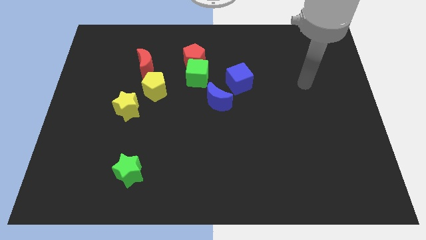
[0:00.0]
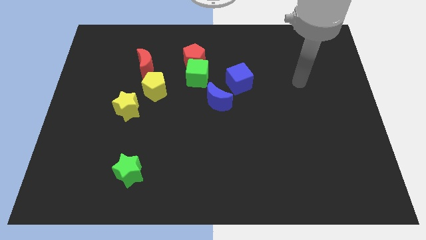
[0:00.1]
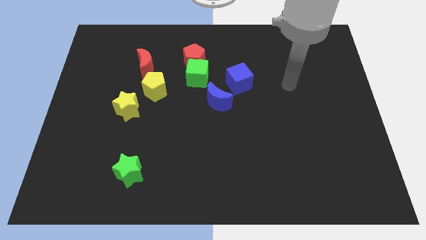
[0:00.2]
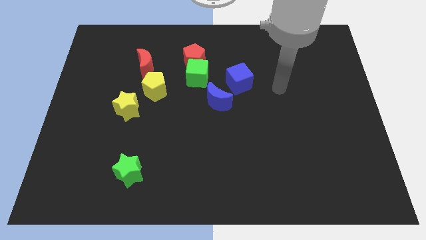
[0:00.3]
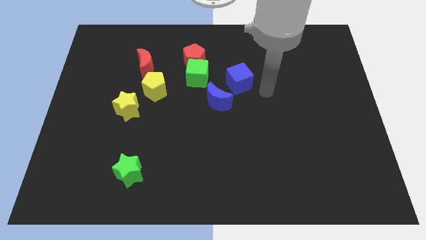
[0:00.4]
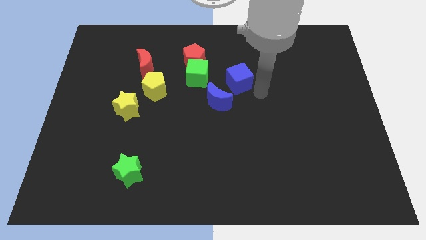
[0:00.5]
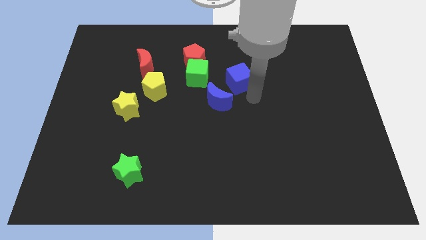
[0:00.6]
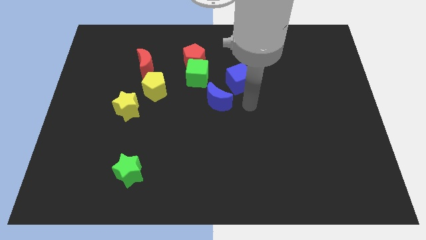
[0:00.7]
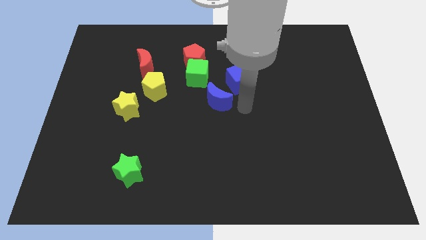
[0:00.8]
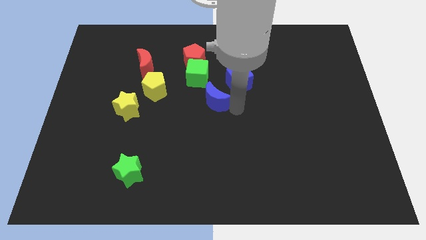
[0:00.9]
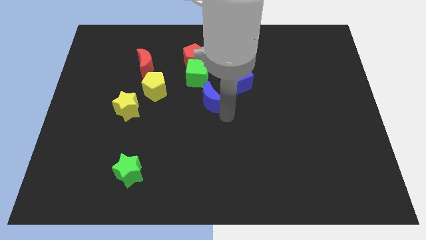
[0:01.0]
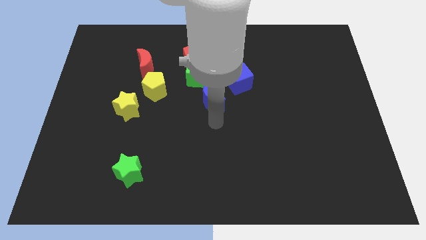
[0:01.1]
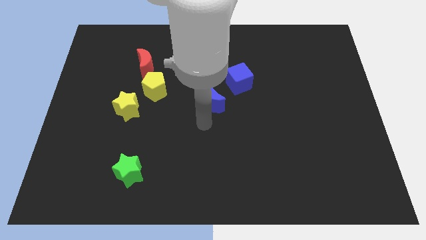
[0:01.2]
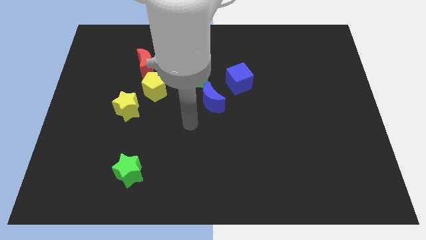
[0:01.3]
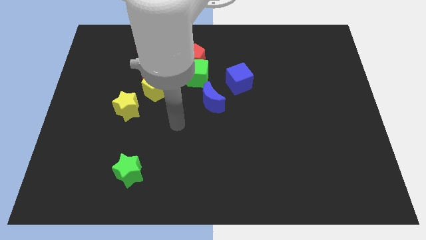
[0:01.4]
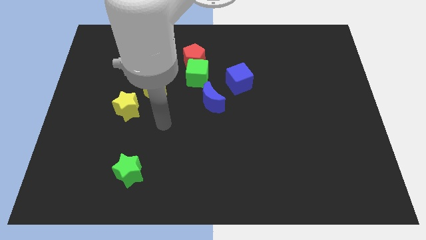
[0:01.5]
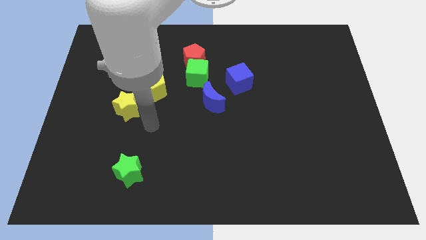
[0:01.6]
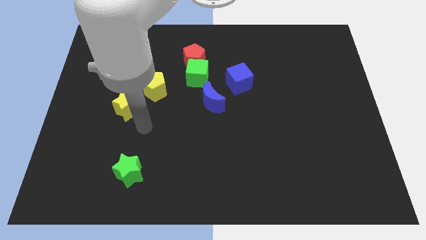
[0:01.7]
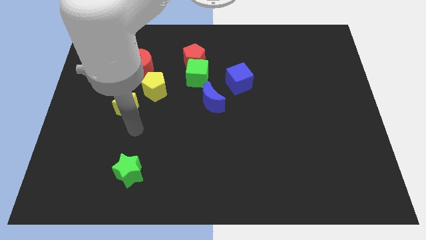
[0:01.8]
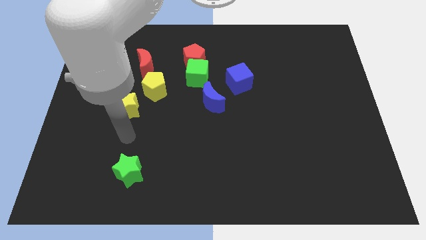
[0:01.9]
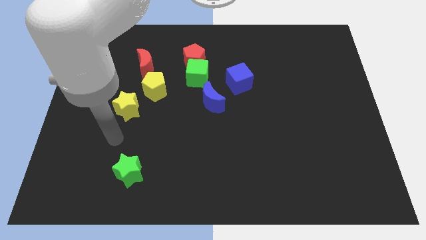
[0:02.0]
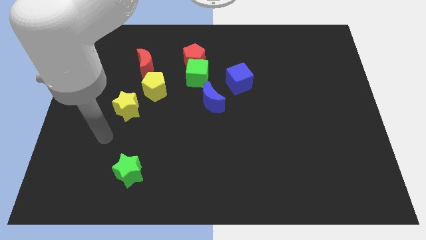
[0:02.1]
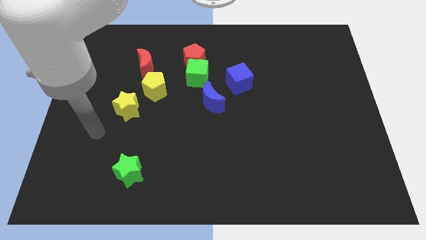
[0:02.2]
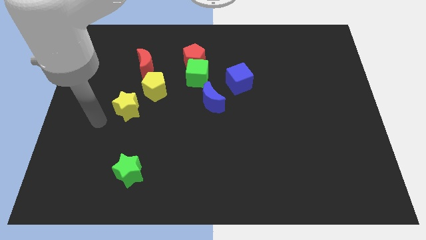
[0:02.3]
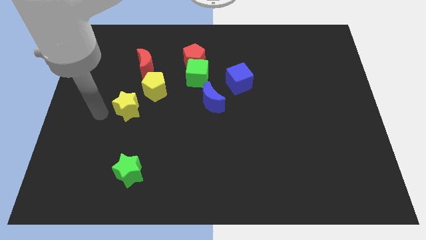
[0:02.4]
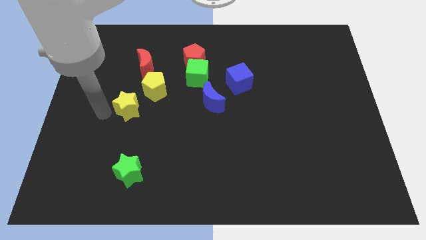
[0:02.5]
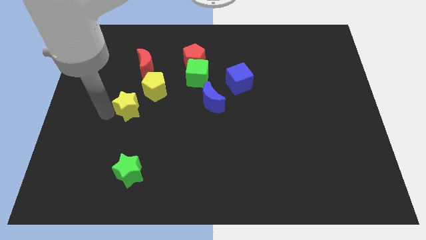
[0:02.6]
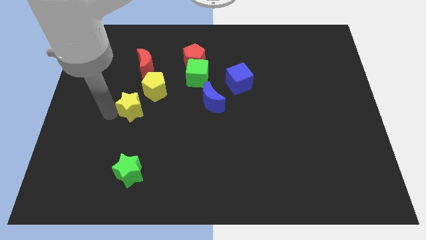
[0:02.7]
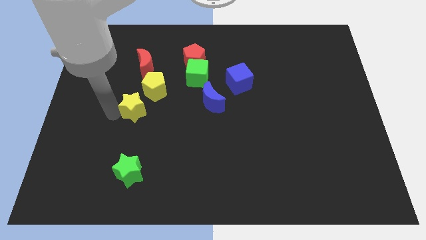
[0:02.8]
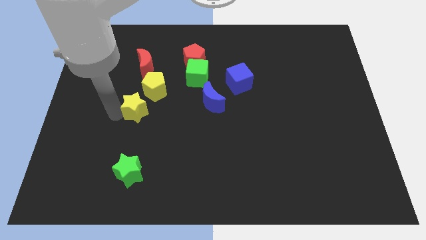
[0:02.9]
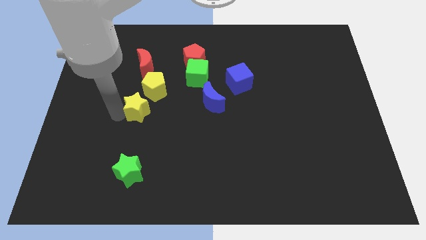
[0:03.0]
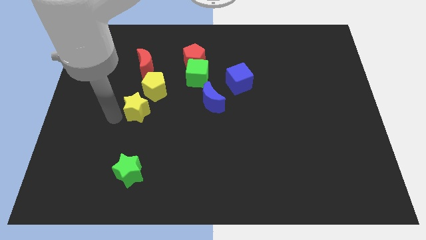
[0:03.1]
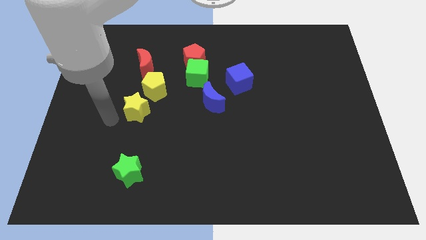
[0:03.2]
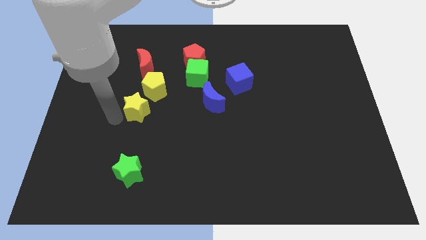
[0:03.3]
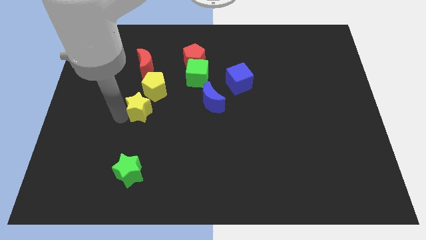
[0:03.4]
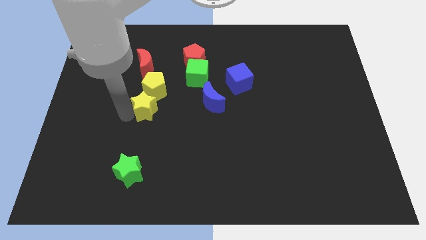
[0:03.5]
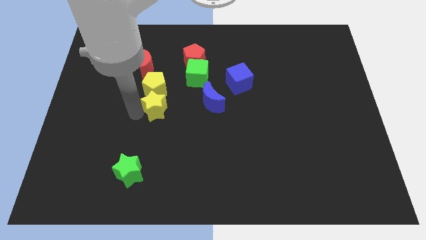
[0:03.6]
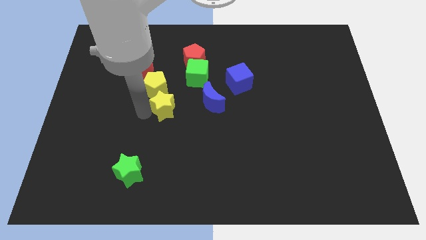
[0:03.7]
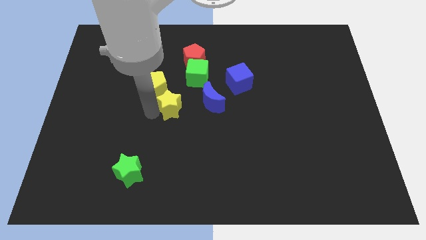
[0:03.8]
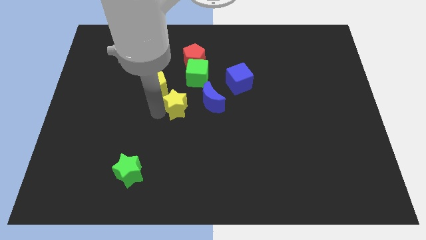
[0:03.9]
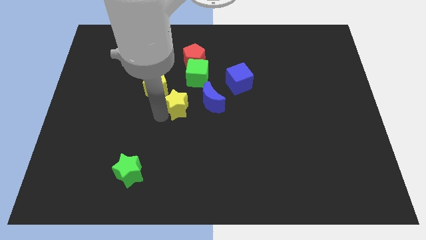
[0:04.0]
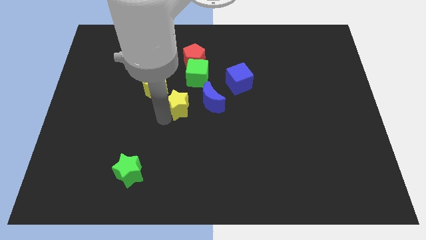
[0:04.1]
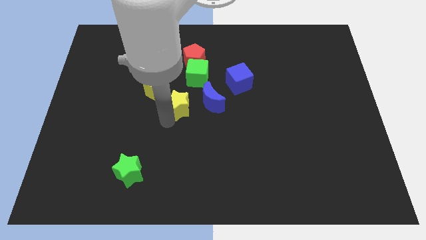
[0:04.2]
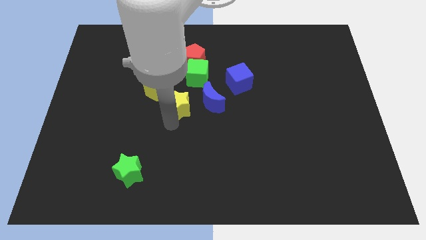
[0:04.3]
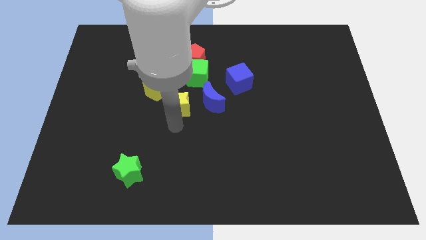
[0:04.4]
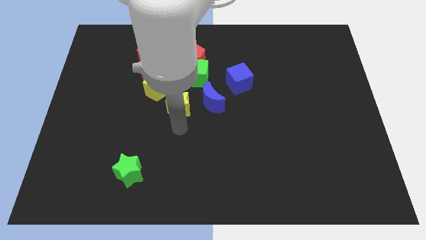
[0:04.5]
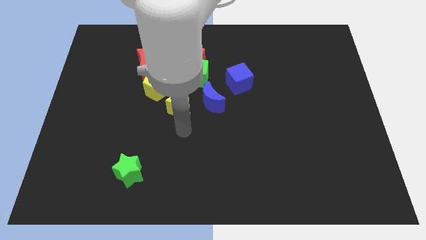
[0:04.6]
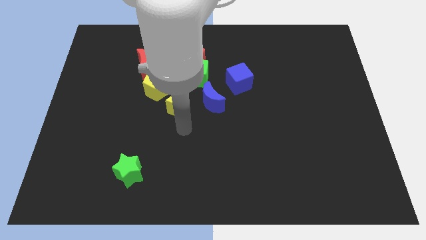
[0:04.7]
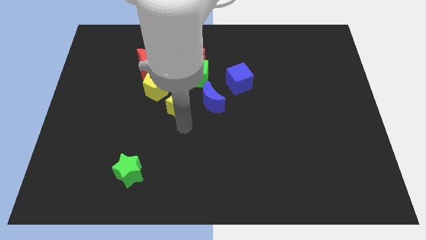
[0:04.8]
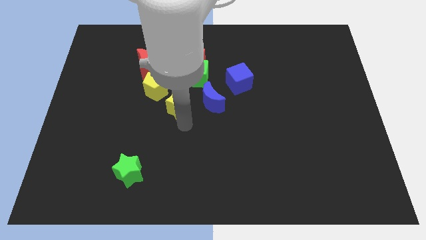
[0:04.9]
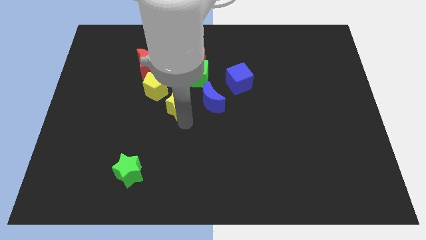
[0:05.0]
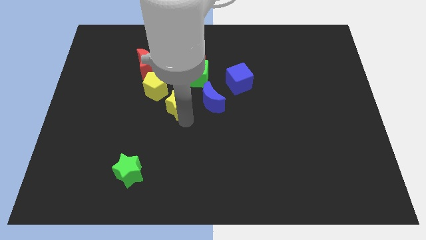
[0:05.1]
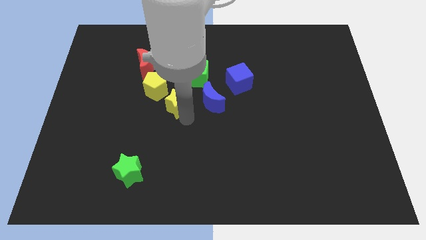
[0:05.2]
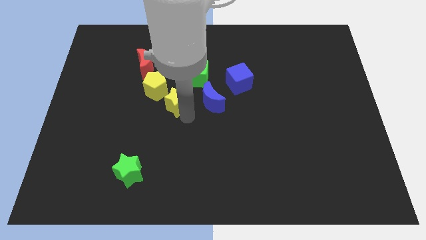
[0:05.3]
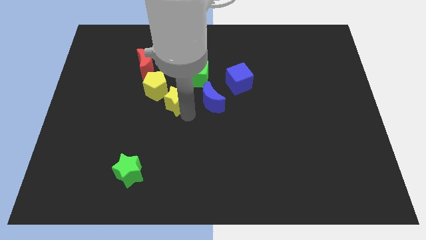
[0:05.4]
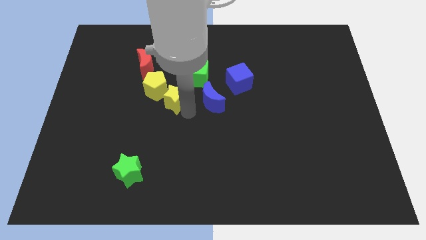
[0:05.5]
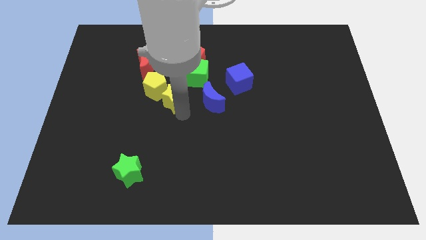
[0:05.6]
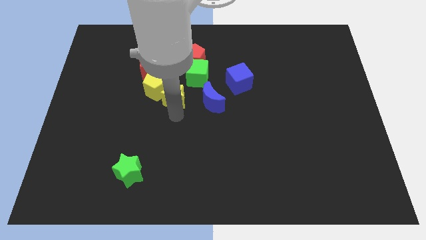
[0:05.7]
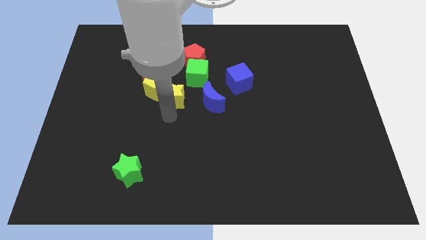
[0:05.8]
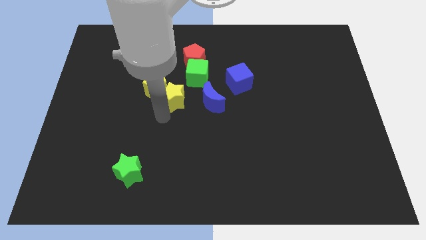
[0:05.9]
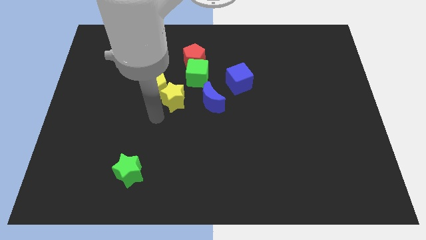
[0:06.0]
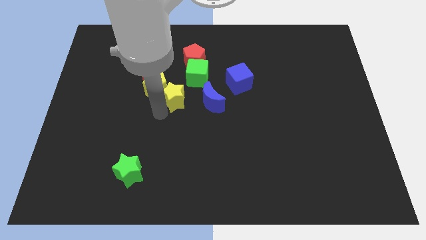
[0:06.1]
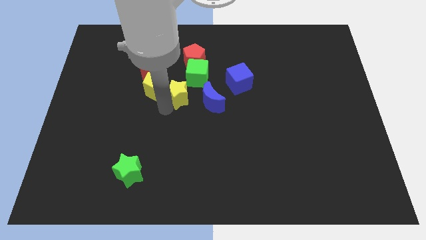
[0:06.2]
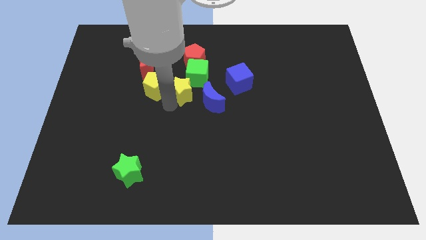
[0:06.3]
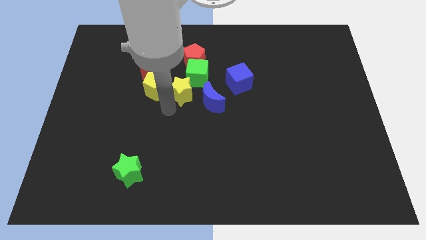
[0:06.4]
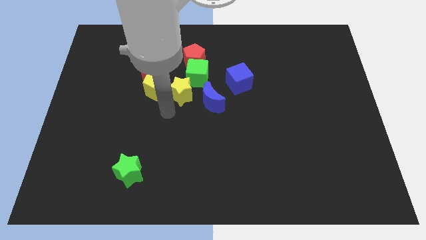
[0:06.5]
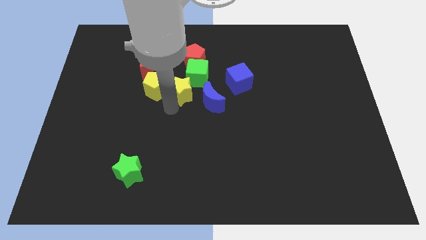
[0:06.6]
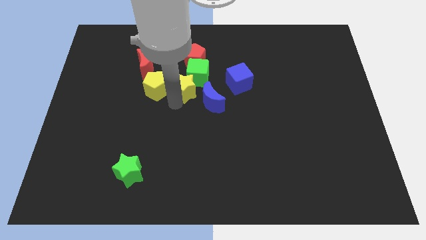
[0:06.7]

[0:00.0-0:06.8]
move the yellow star towards the green cube

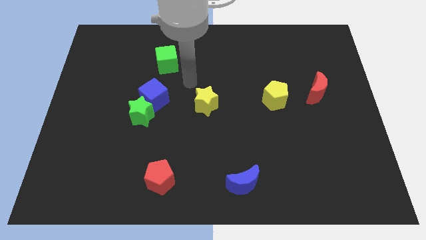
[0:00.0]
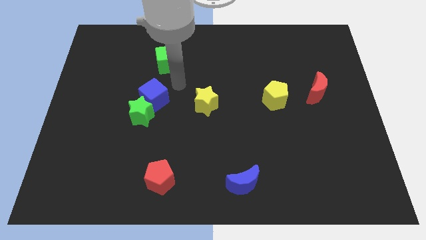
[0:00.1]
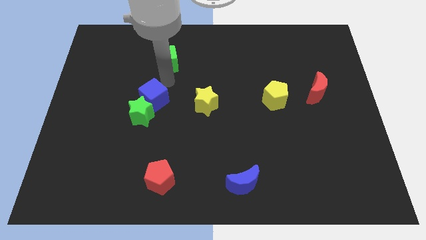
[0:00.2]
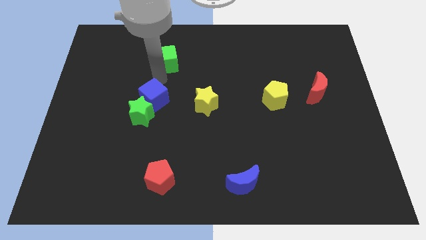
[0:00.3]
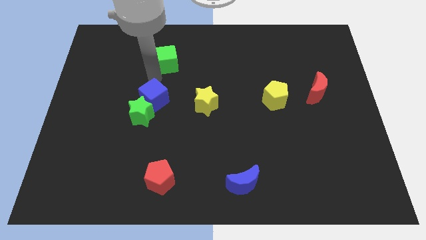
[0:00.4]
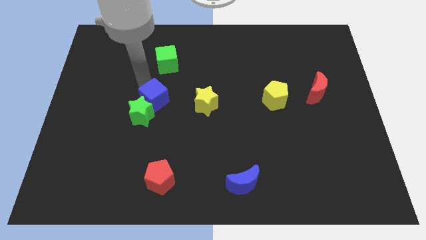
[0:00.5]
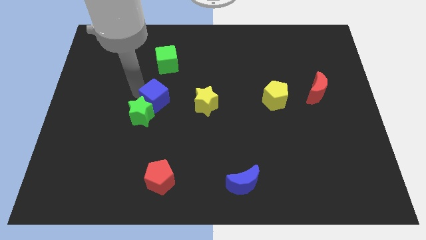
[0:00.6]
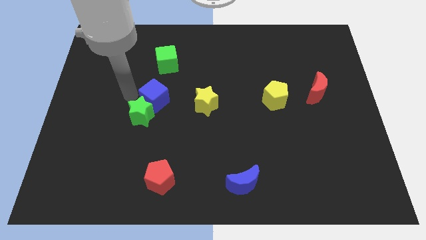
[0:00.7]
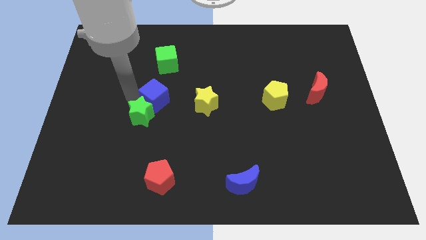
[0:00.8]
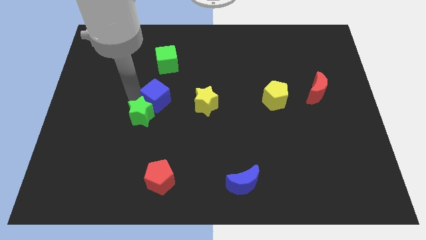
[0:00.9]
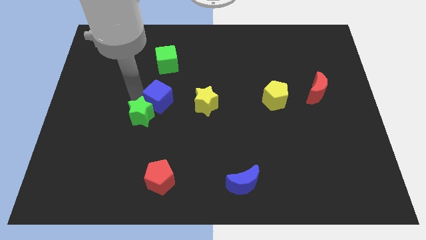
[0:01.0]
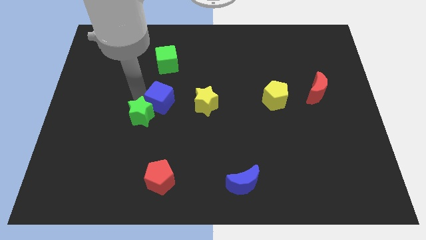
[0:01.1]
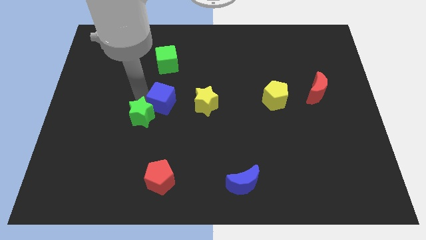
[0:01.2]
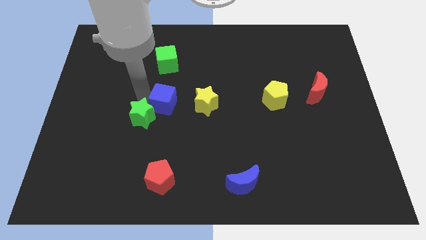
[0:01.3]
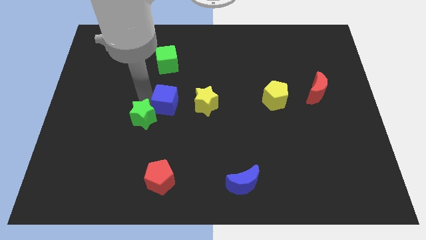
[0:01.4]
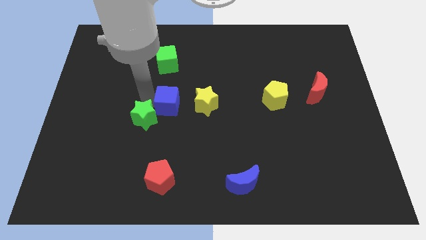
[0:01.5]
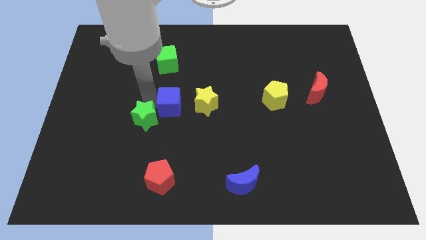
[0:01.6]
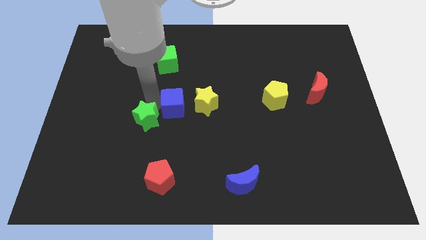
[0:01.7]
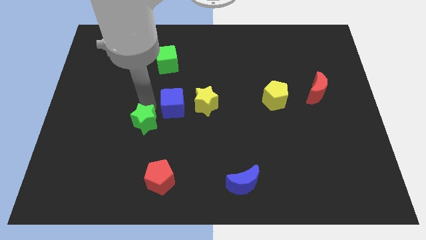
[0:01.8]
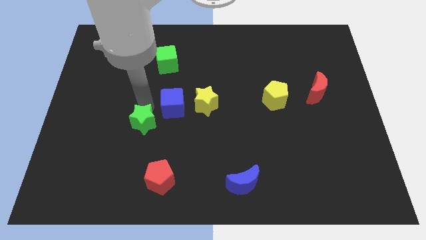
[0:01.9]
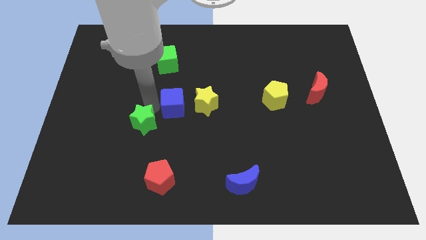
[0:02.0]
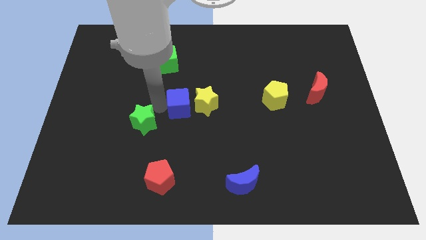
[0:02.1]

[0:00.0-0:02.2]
move the blue cube towards the yellow star
